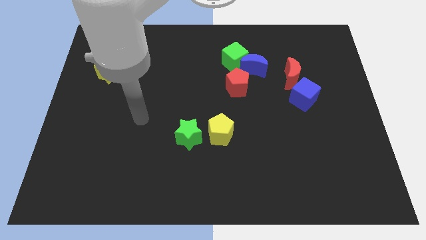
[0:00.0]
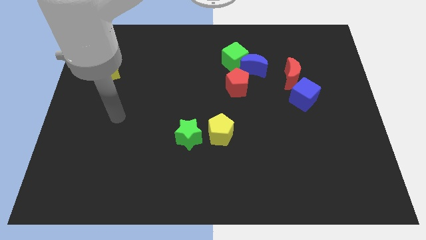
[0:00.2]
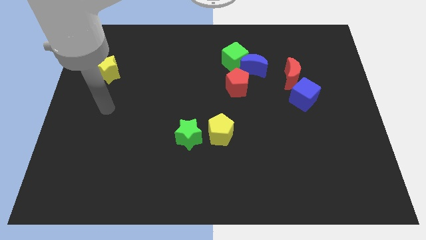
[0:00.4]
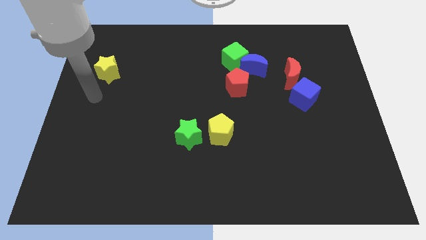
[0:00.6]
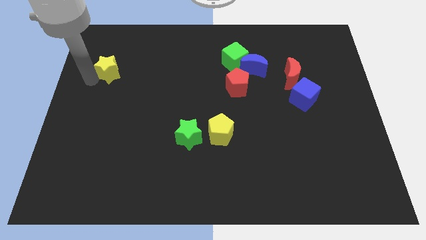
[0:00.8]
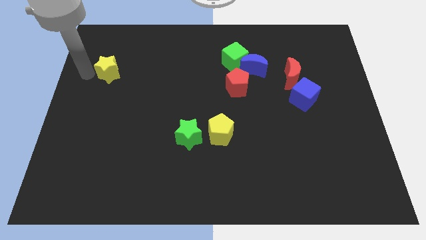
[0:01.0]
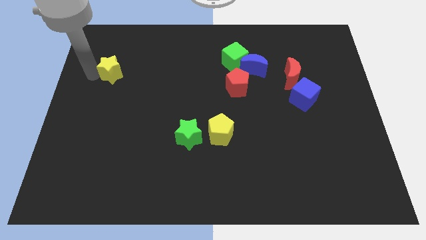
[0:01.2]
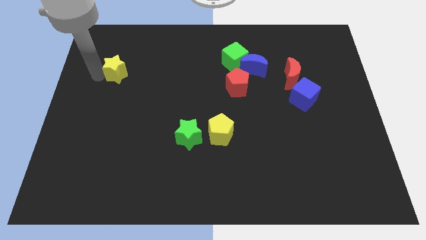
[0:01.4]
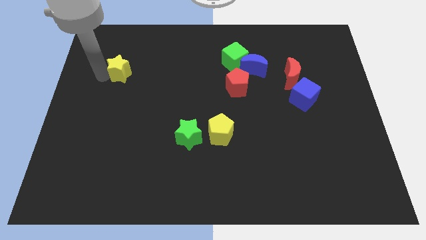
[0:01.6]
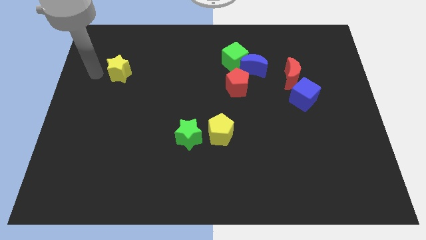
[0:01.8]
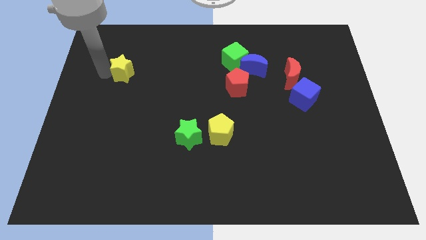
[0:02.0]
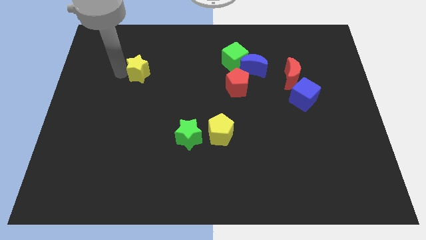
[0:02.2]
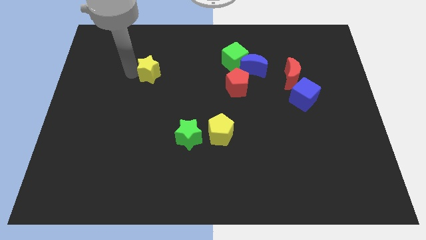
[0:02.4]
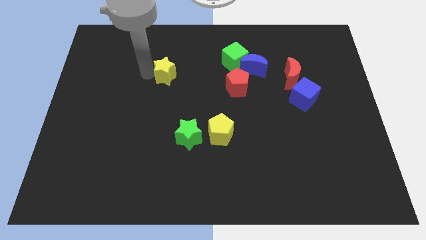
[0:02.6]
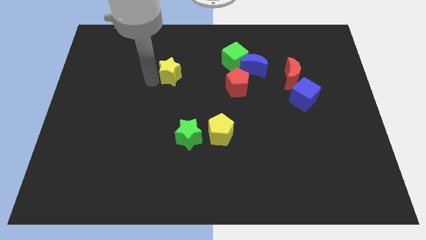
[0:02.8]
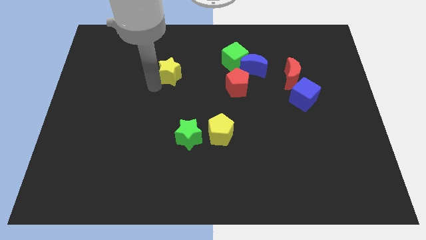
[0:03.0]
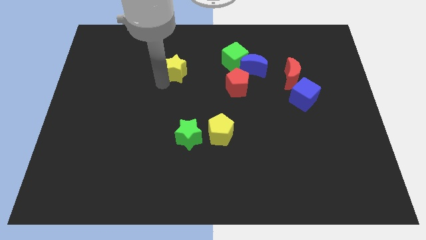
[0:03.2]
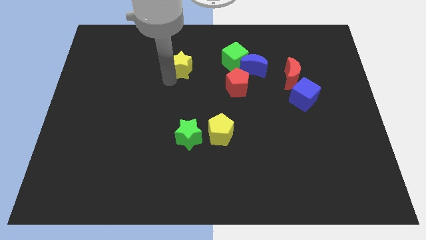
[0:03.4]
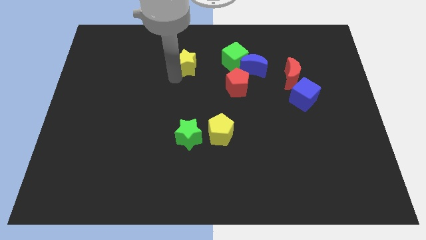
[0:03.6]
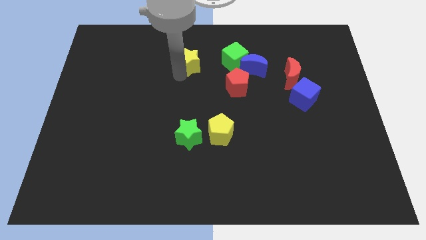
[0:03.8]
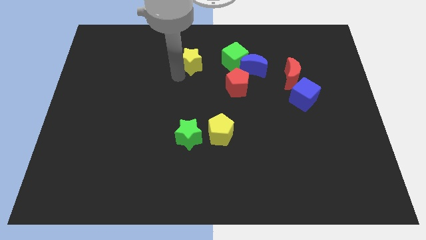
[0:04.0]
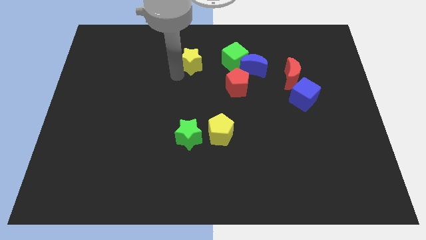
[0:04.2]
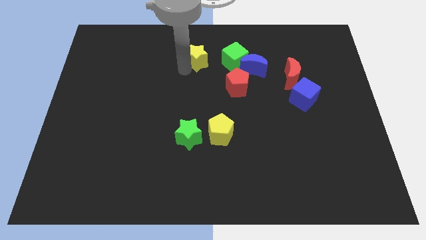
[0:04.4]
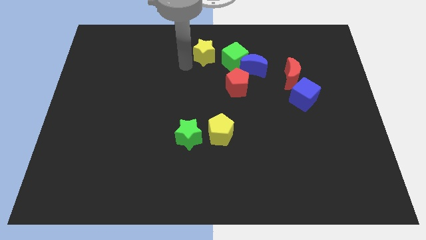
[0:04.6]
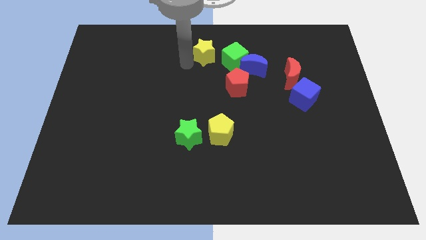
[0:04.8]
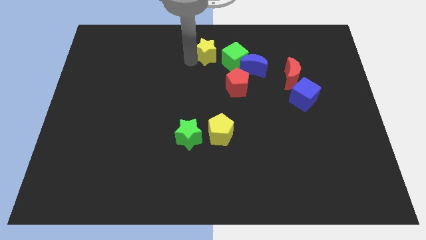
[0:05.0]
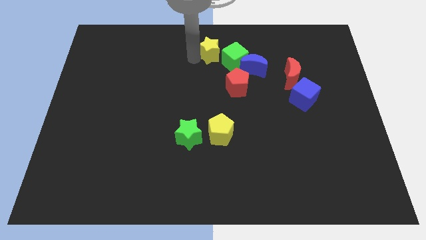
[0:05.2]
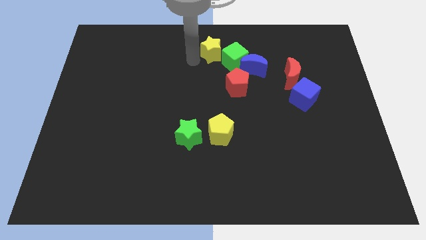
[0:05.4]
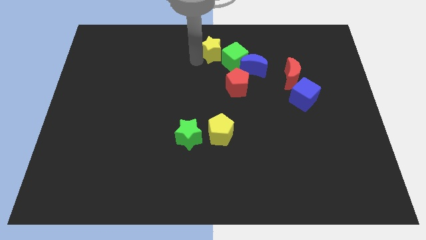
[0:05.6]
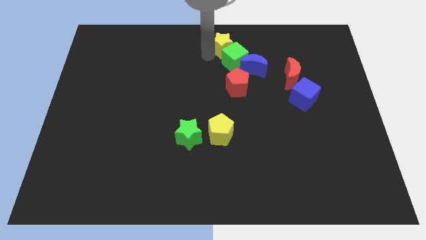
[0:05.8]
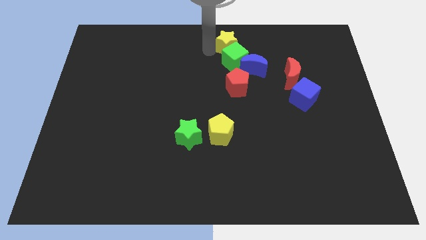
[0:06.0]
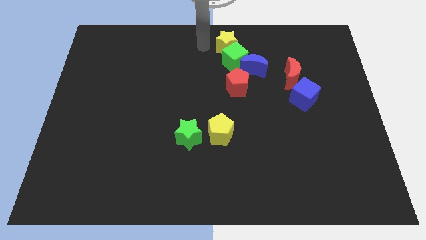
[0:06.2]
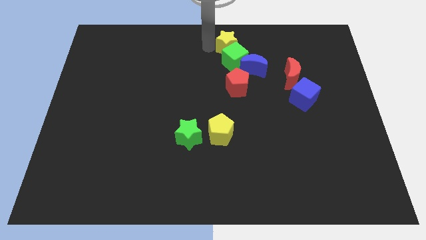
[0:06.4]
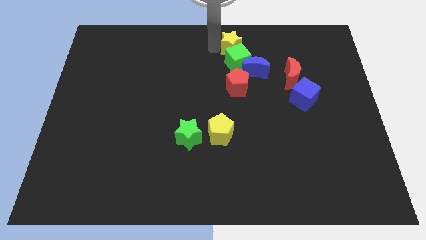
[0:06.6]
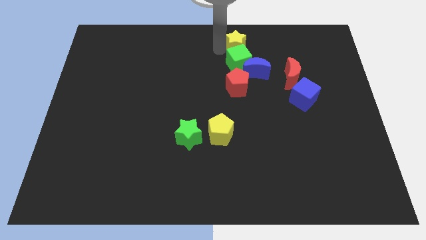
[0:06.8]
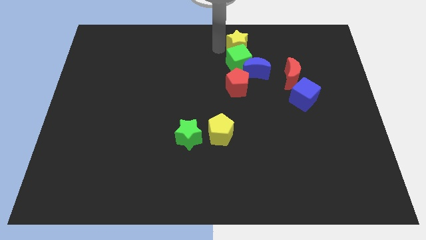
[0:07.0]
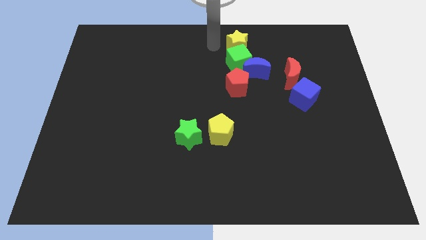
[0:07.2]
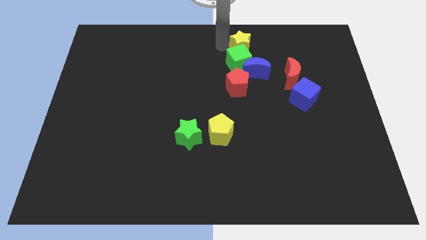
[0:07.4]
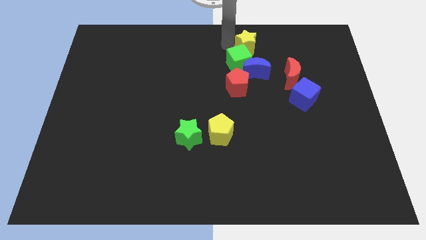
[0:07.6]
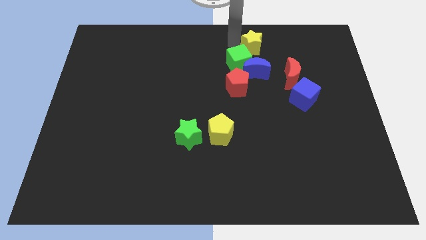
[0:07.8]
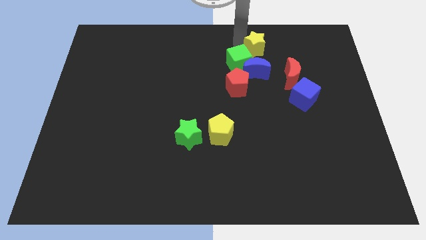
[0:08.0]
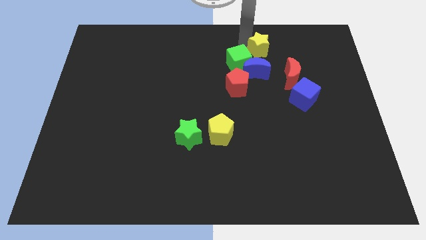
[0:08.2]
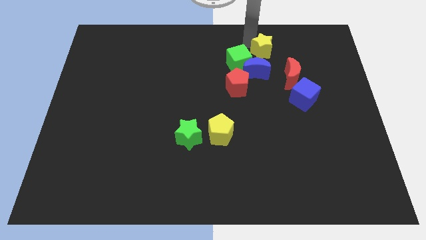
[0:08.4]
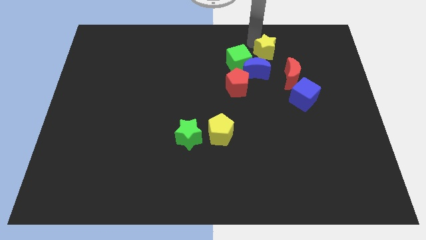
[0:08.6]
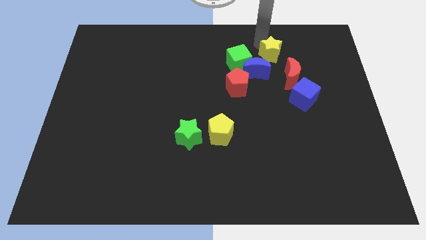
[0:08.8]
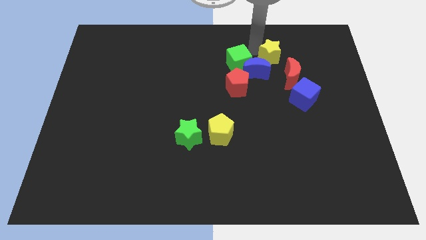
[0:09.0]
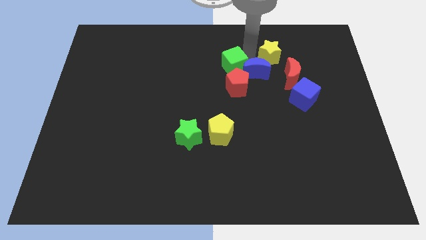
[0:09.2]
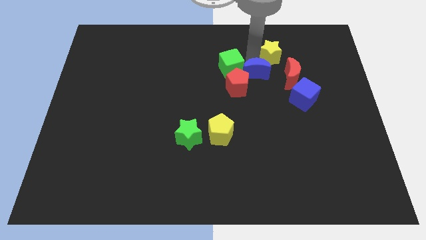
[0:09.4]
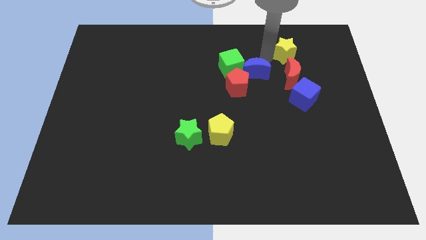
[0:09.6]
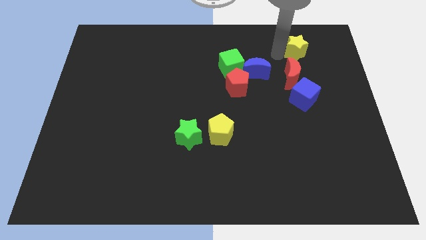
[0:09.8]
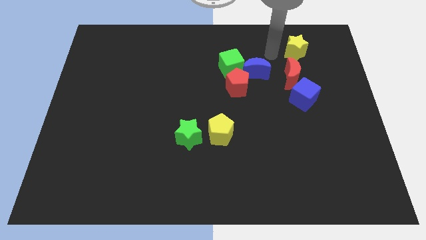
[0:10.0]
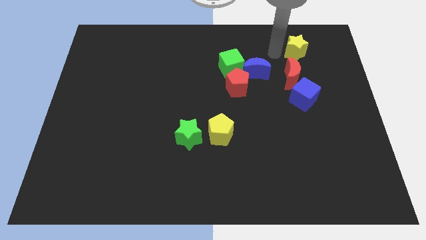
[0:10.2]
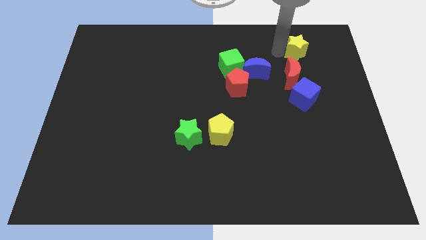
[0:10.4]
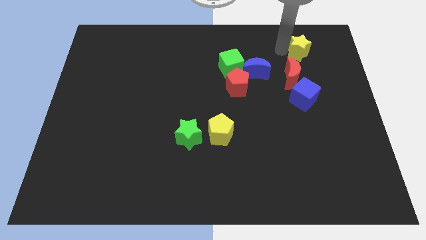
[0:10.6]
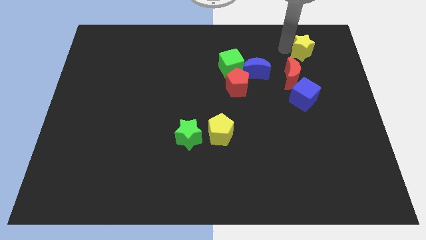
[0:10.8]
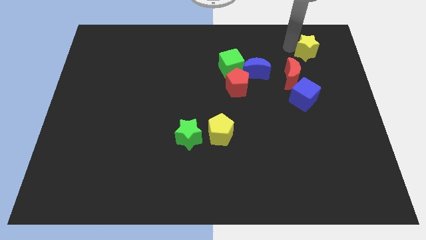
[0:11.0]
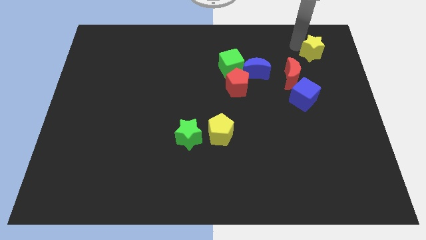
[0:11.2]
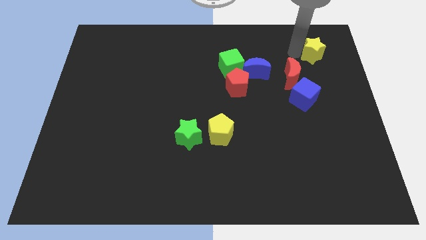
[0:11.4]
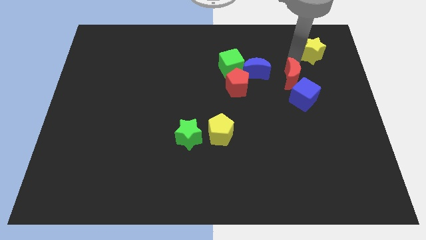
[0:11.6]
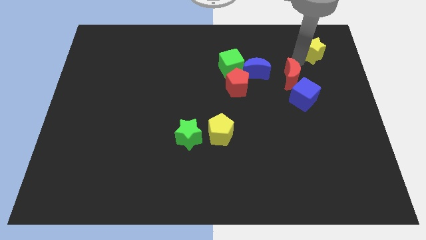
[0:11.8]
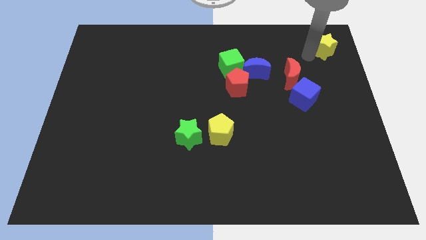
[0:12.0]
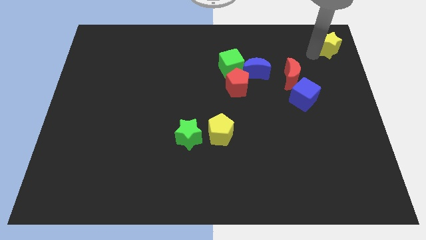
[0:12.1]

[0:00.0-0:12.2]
push the yellow star to the top right corner
